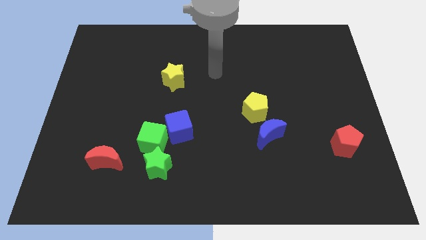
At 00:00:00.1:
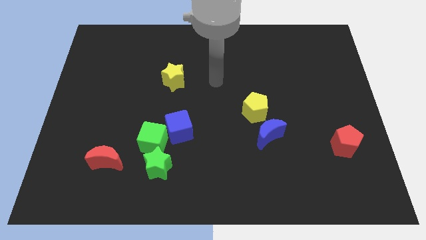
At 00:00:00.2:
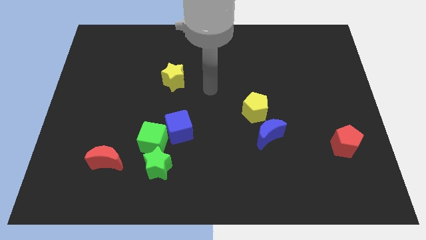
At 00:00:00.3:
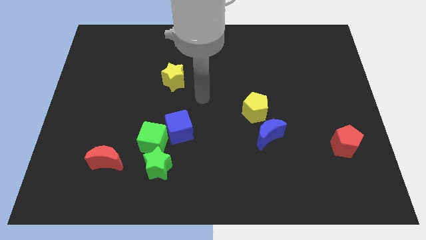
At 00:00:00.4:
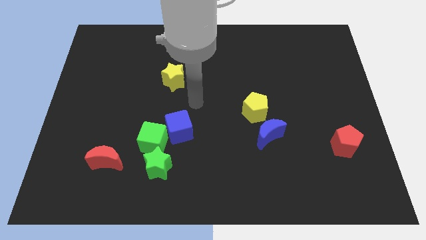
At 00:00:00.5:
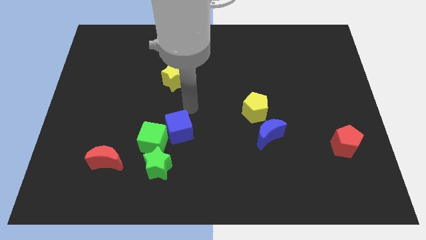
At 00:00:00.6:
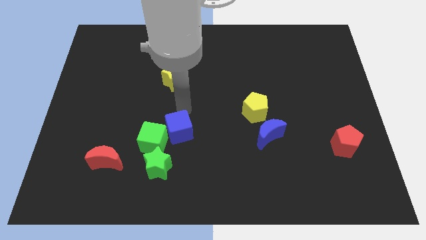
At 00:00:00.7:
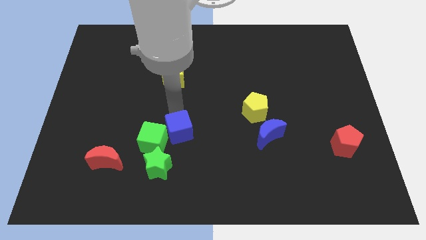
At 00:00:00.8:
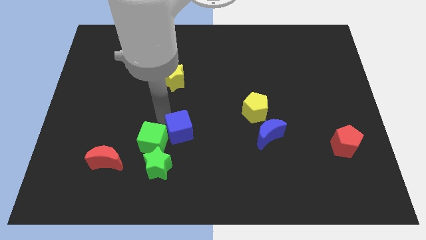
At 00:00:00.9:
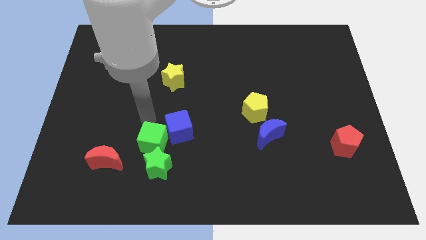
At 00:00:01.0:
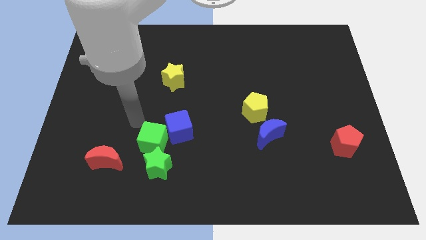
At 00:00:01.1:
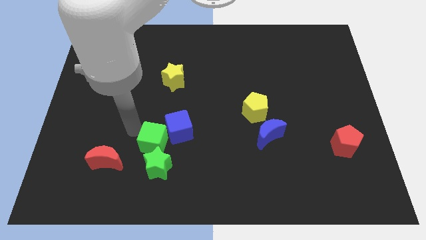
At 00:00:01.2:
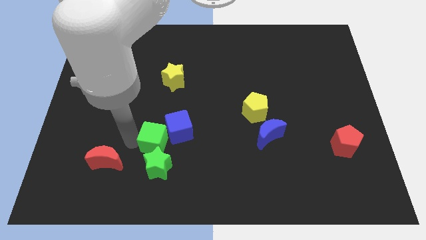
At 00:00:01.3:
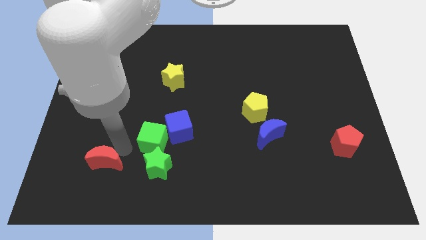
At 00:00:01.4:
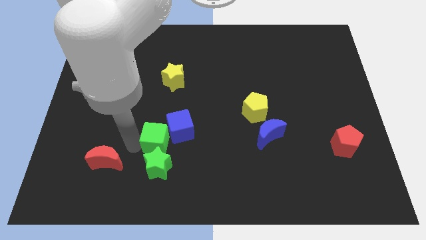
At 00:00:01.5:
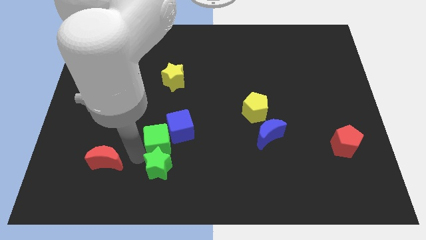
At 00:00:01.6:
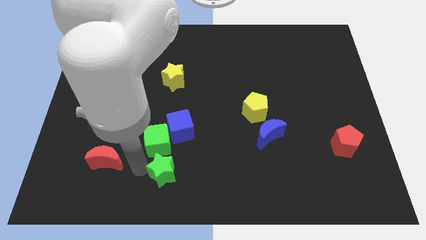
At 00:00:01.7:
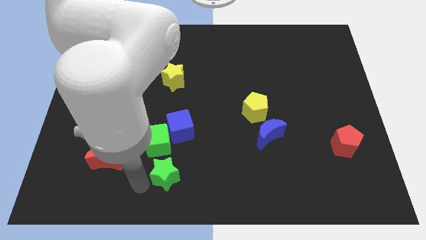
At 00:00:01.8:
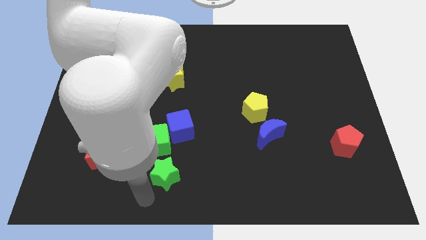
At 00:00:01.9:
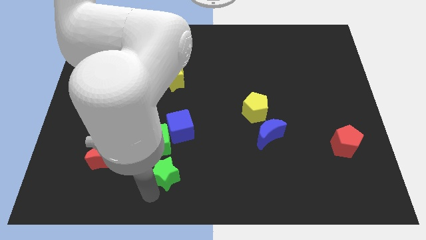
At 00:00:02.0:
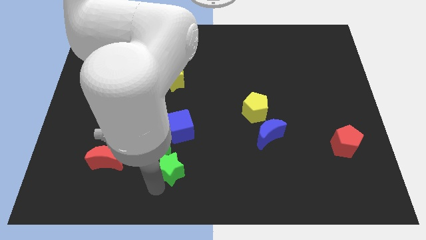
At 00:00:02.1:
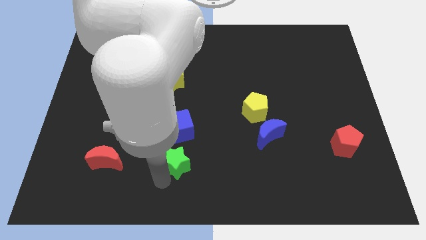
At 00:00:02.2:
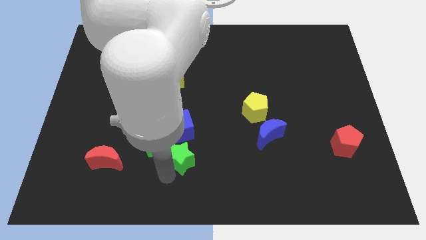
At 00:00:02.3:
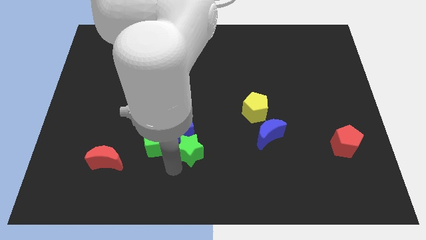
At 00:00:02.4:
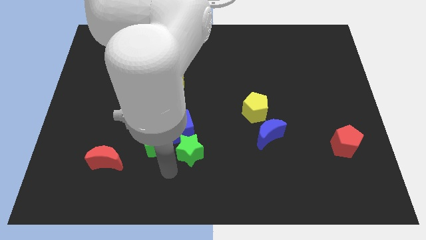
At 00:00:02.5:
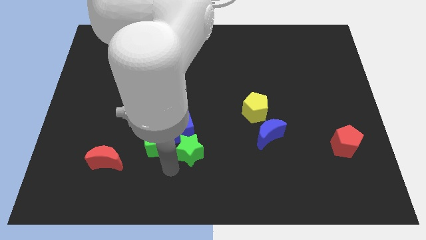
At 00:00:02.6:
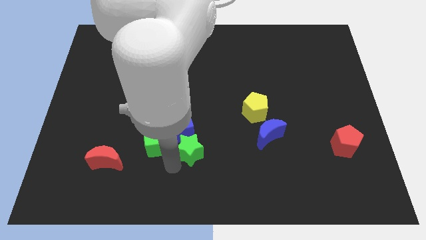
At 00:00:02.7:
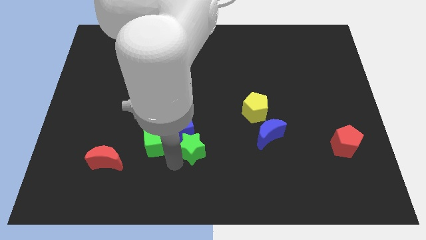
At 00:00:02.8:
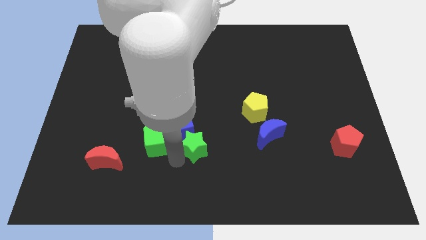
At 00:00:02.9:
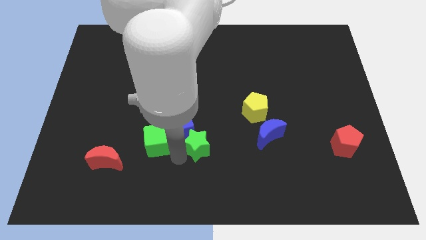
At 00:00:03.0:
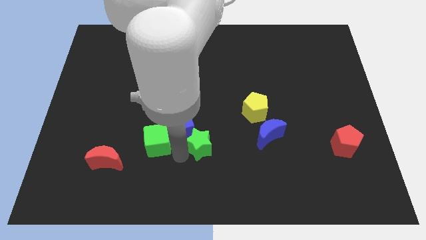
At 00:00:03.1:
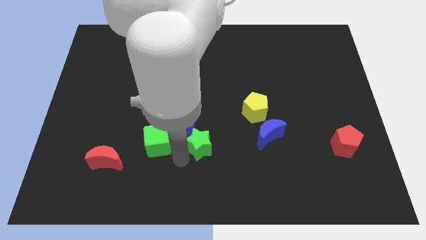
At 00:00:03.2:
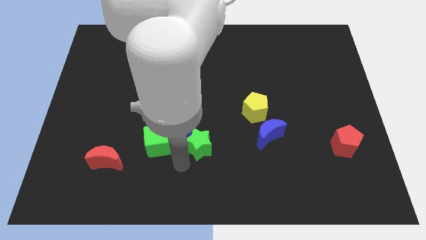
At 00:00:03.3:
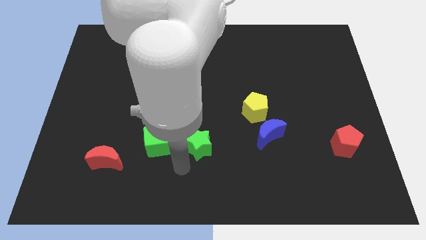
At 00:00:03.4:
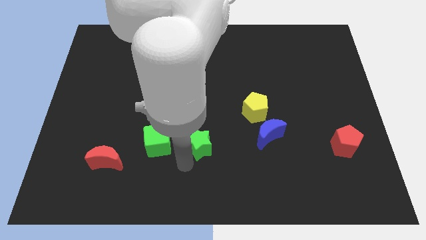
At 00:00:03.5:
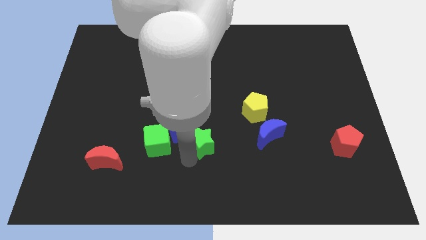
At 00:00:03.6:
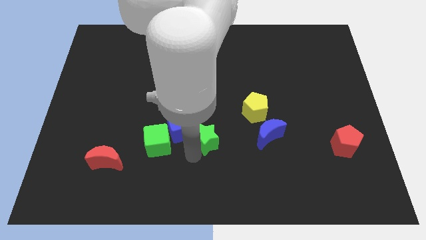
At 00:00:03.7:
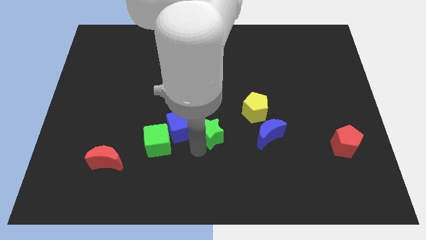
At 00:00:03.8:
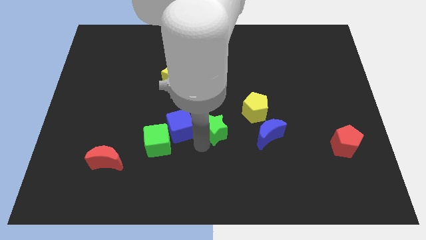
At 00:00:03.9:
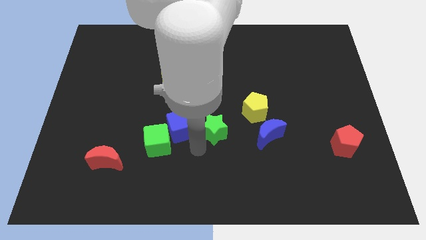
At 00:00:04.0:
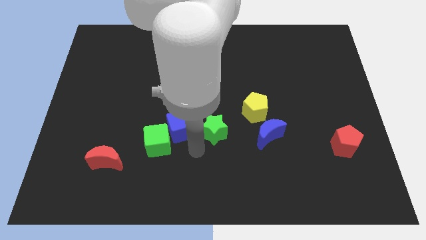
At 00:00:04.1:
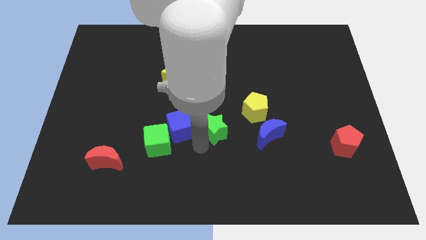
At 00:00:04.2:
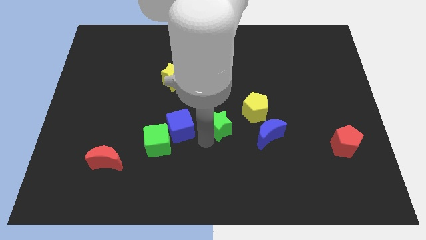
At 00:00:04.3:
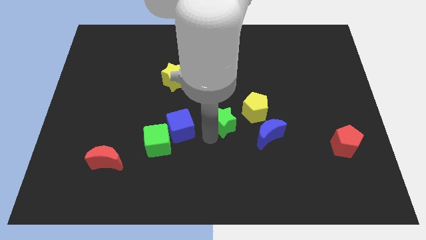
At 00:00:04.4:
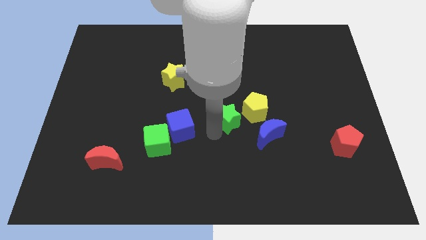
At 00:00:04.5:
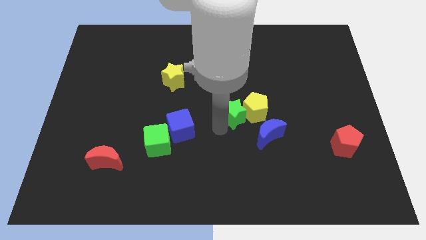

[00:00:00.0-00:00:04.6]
move the green star diagonally upwards and right

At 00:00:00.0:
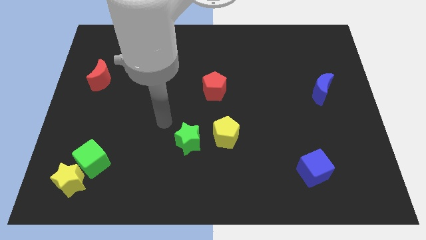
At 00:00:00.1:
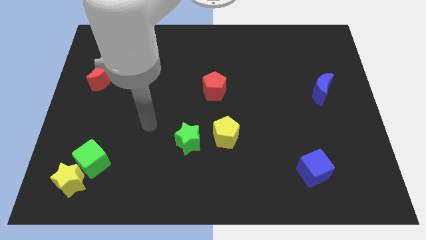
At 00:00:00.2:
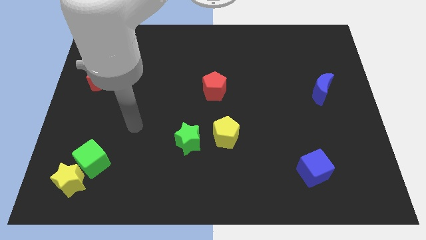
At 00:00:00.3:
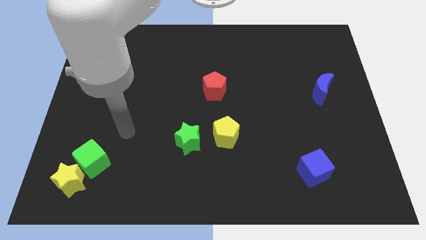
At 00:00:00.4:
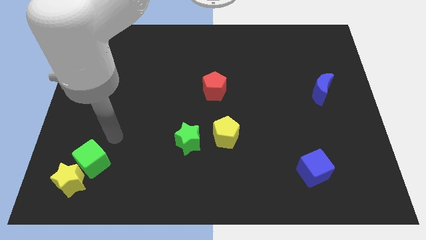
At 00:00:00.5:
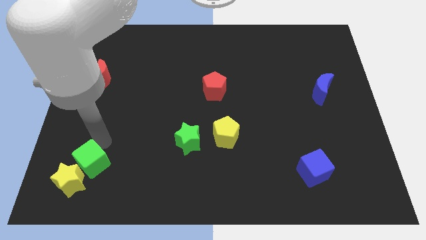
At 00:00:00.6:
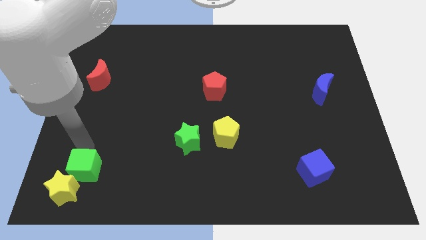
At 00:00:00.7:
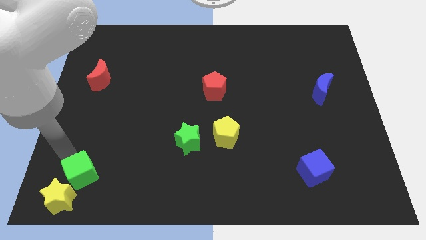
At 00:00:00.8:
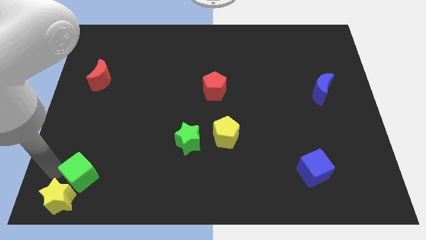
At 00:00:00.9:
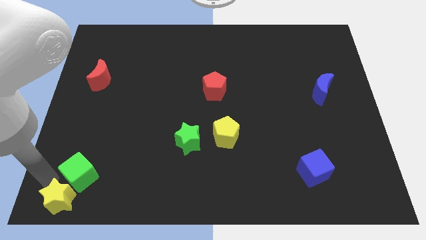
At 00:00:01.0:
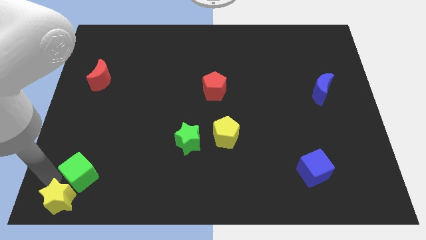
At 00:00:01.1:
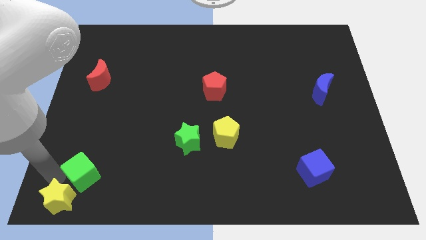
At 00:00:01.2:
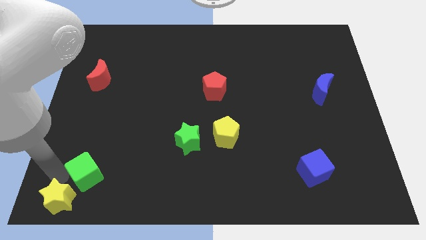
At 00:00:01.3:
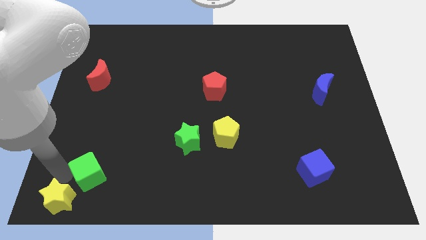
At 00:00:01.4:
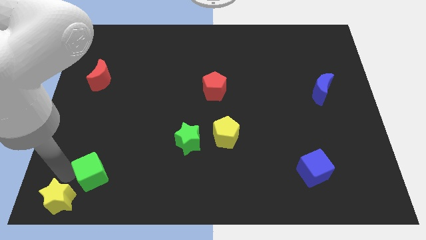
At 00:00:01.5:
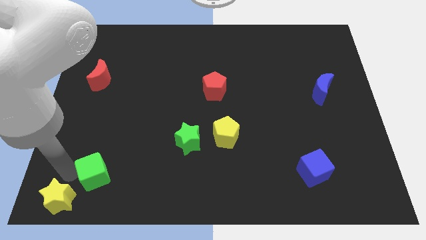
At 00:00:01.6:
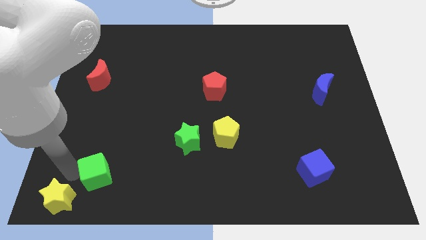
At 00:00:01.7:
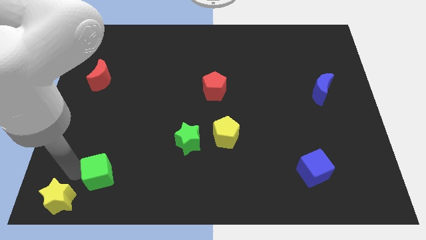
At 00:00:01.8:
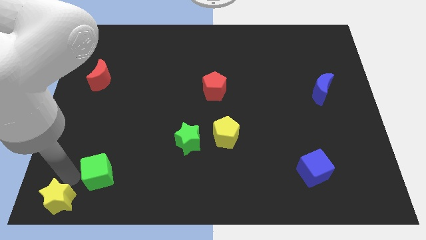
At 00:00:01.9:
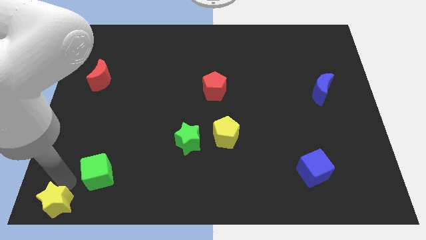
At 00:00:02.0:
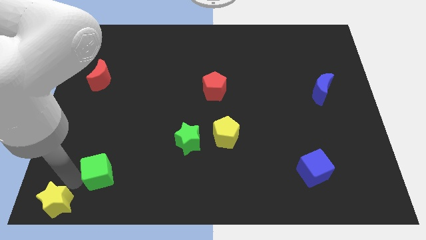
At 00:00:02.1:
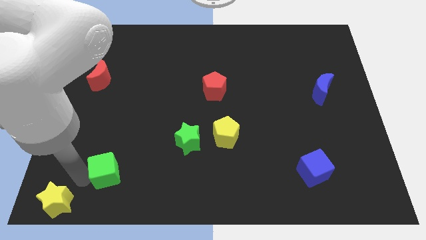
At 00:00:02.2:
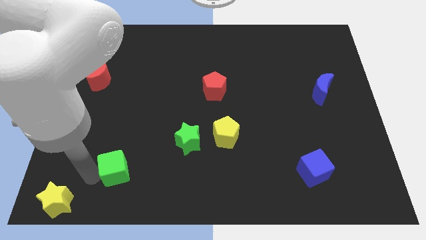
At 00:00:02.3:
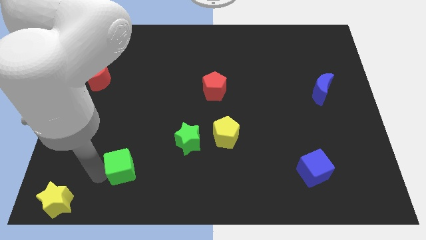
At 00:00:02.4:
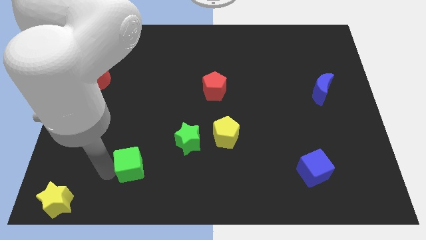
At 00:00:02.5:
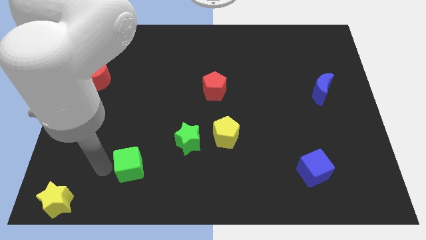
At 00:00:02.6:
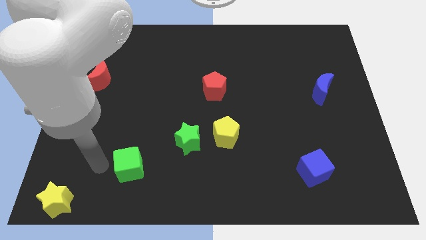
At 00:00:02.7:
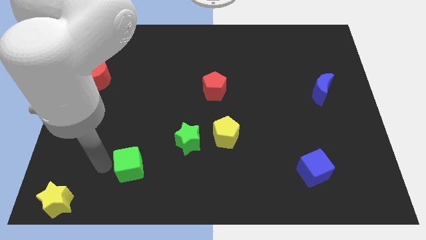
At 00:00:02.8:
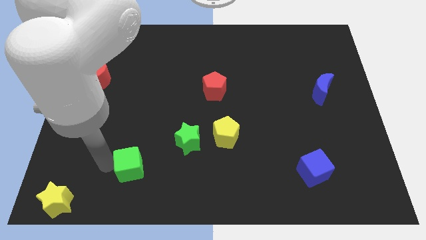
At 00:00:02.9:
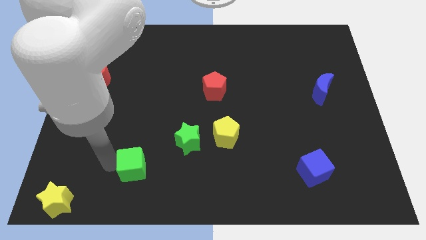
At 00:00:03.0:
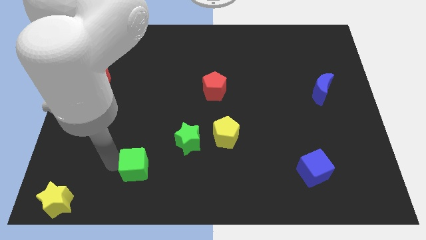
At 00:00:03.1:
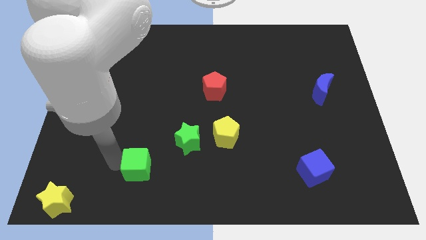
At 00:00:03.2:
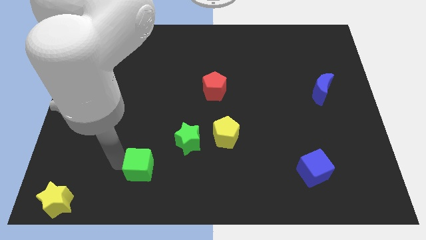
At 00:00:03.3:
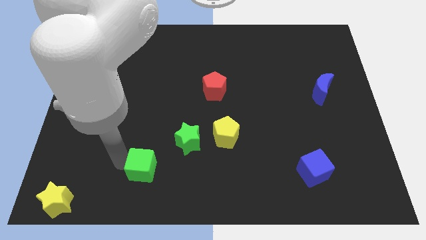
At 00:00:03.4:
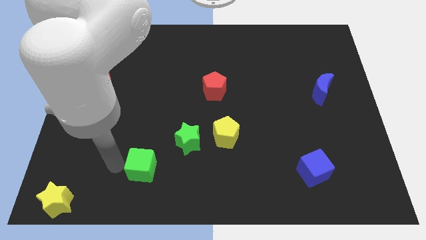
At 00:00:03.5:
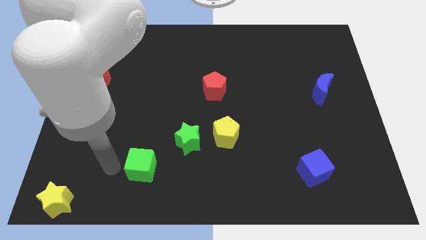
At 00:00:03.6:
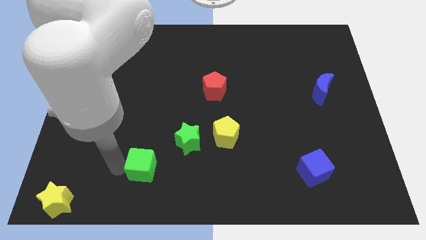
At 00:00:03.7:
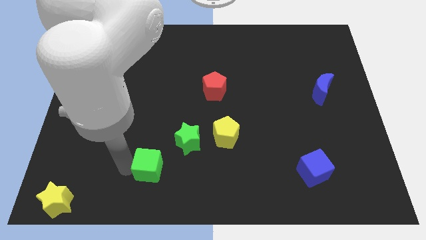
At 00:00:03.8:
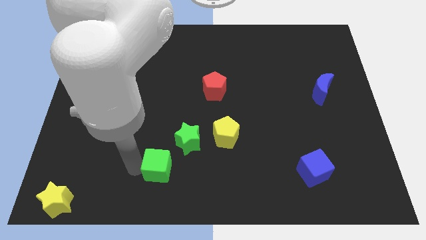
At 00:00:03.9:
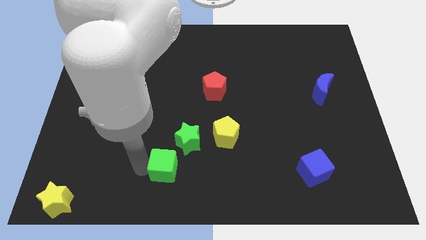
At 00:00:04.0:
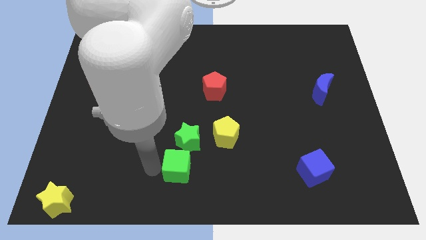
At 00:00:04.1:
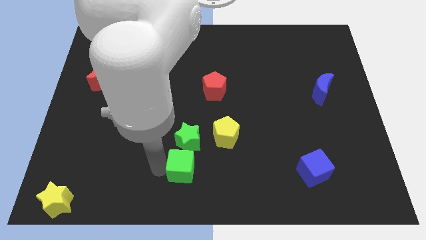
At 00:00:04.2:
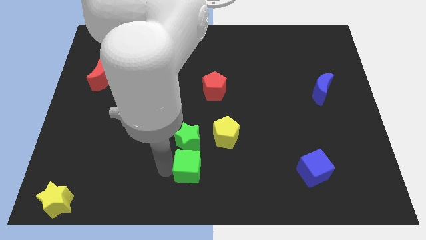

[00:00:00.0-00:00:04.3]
push the green cube right
